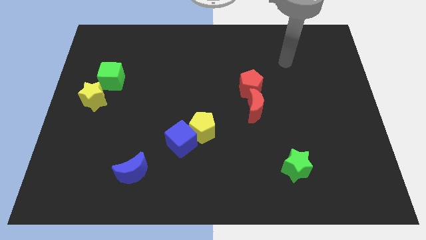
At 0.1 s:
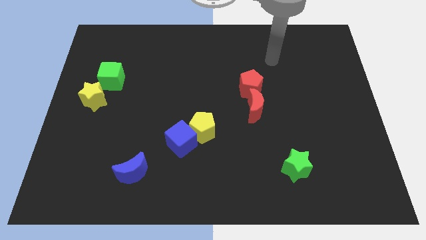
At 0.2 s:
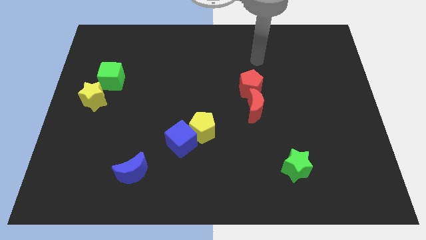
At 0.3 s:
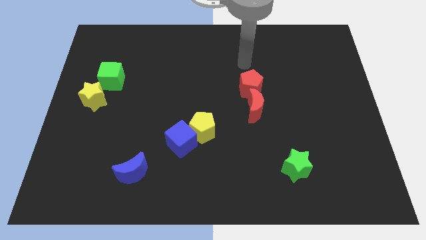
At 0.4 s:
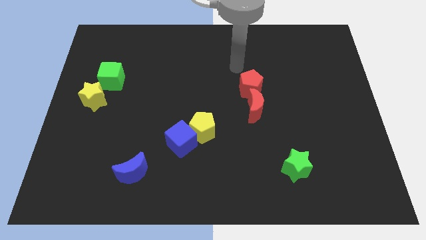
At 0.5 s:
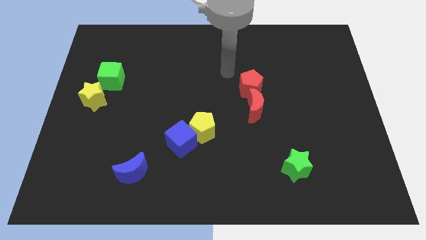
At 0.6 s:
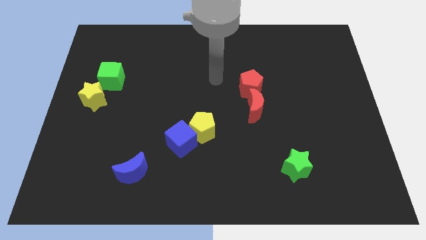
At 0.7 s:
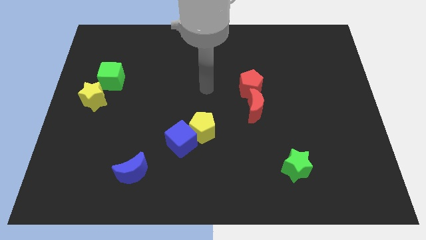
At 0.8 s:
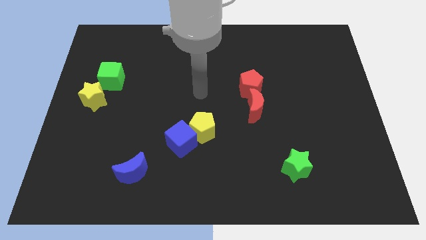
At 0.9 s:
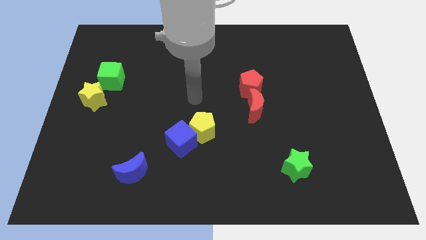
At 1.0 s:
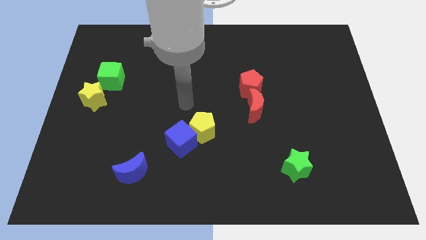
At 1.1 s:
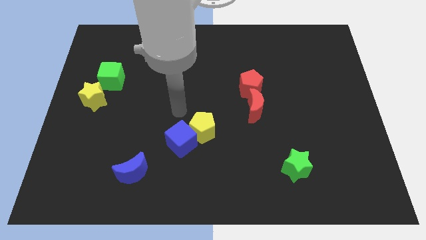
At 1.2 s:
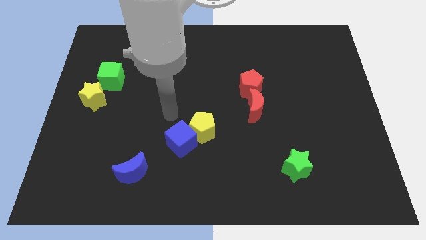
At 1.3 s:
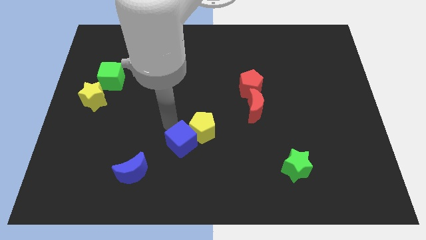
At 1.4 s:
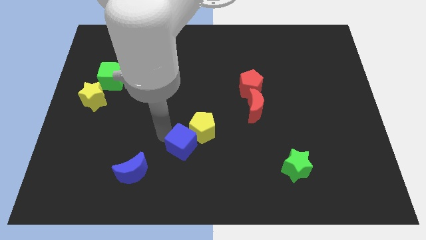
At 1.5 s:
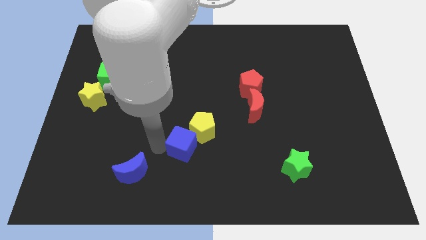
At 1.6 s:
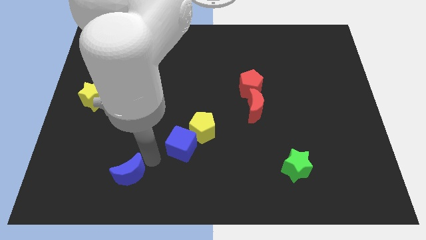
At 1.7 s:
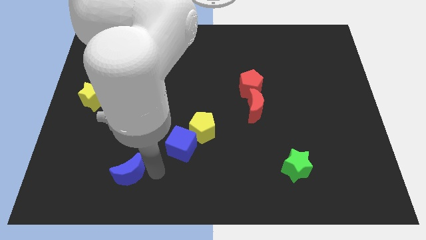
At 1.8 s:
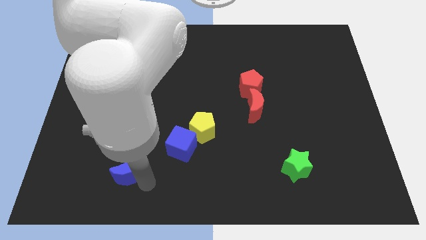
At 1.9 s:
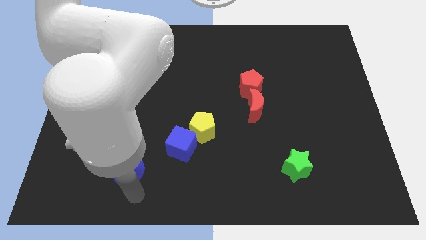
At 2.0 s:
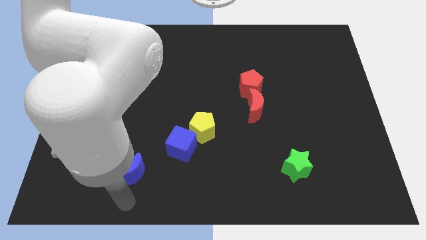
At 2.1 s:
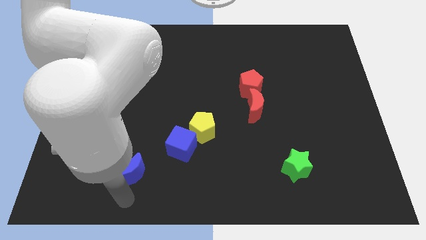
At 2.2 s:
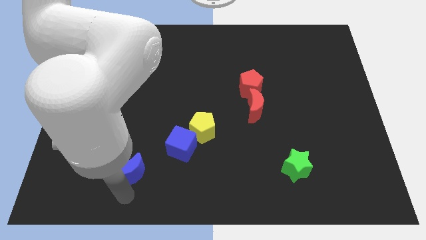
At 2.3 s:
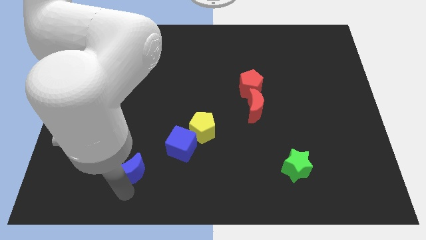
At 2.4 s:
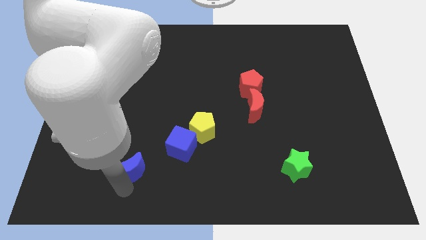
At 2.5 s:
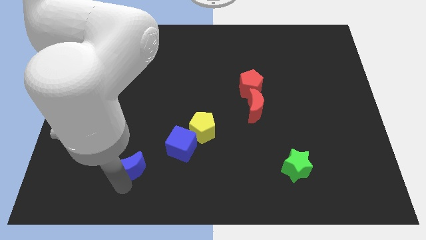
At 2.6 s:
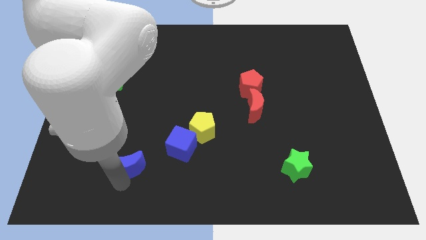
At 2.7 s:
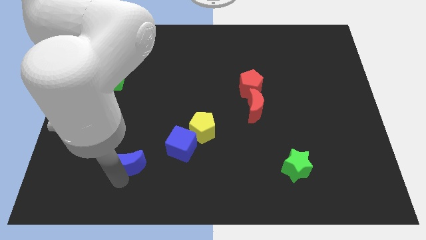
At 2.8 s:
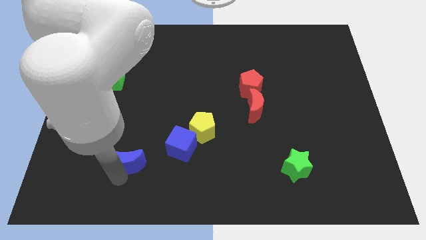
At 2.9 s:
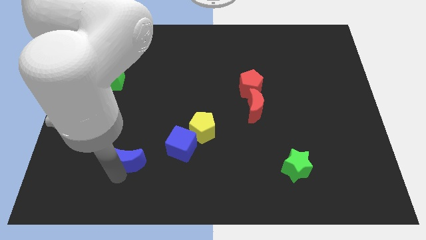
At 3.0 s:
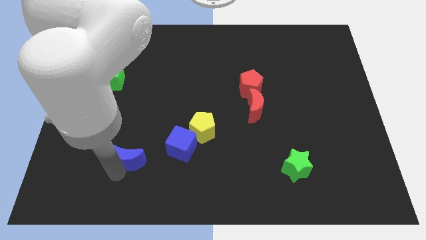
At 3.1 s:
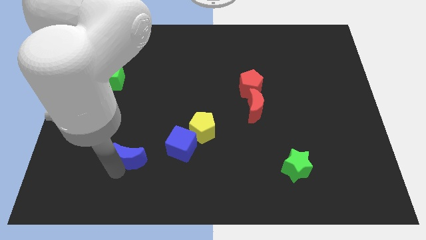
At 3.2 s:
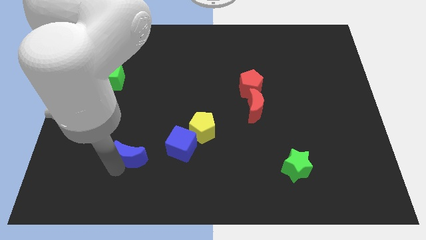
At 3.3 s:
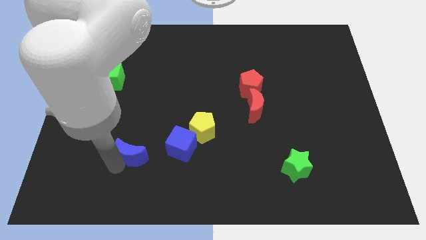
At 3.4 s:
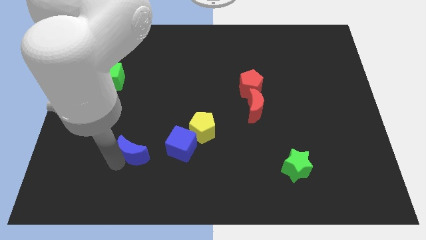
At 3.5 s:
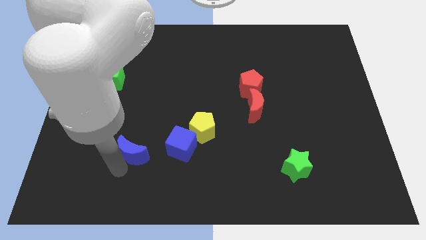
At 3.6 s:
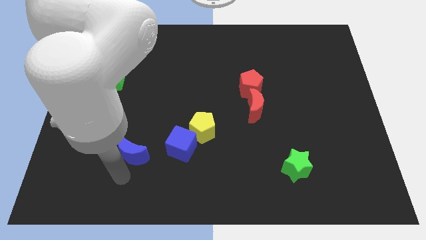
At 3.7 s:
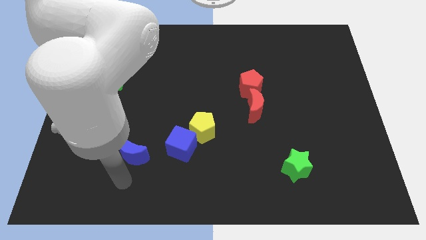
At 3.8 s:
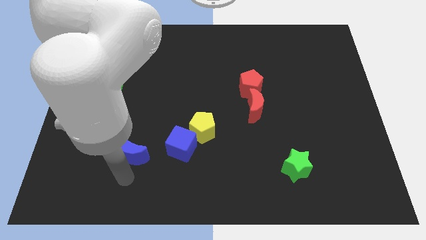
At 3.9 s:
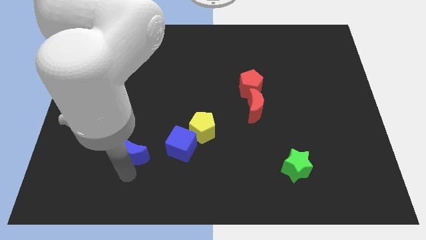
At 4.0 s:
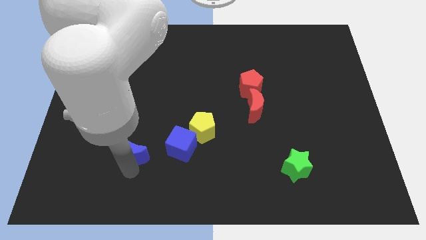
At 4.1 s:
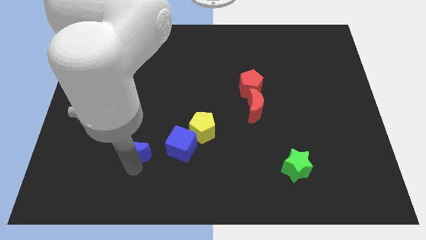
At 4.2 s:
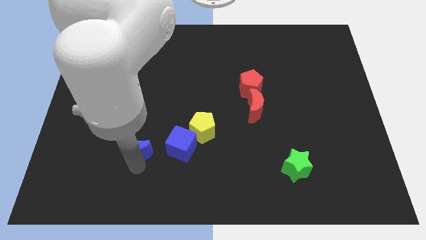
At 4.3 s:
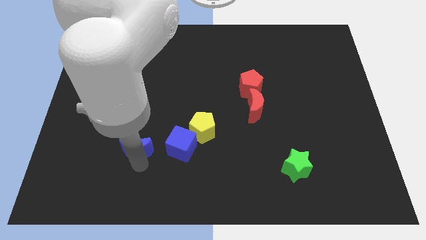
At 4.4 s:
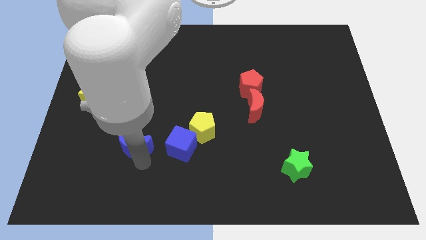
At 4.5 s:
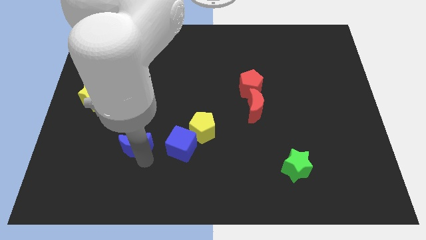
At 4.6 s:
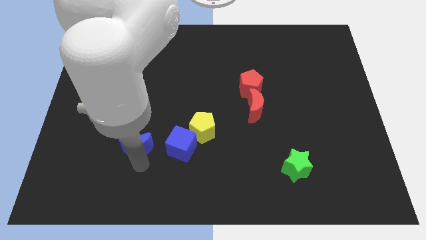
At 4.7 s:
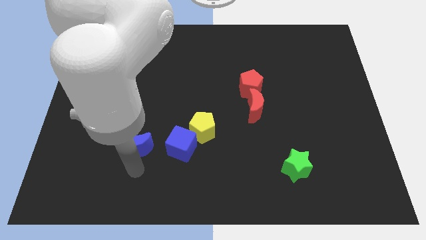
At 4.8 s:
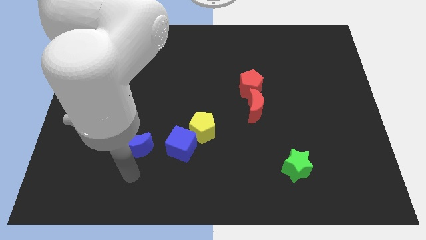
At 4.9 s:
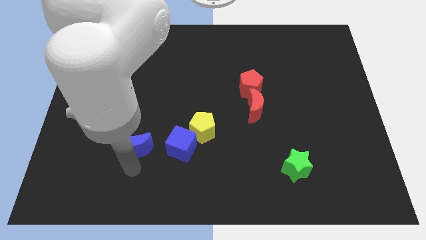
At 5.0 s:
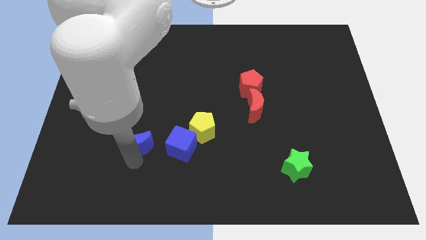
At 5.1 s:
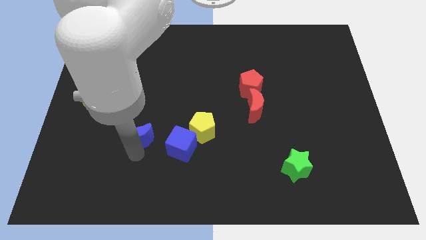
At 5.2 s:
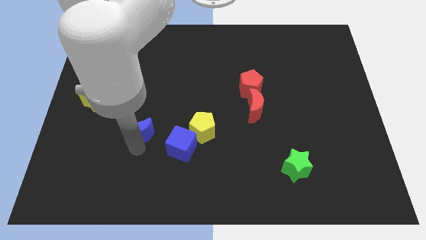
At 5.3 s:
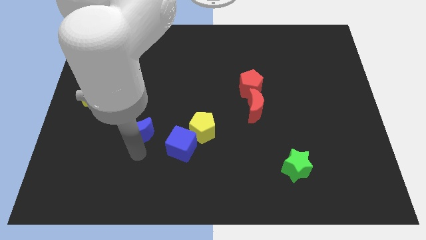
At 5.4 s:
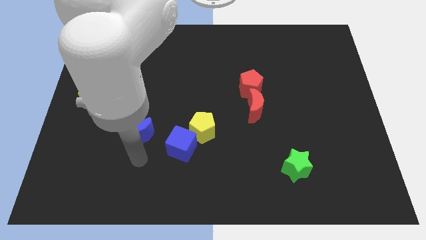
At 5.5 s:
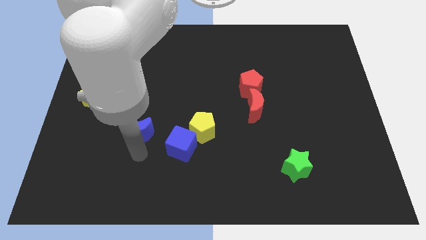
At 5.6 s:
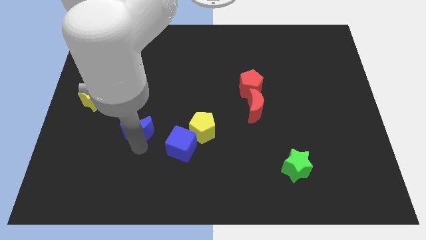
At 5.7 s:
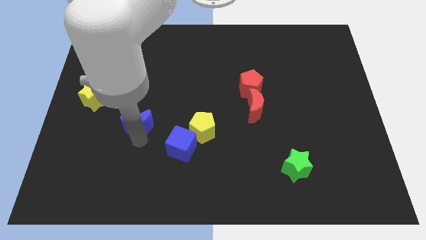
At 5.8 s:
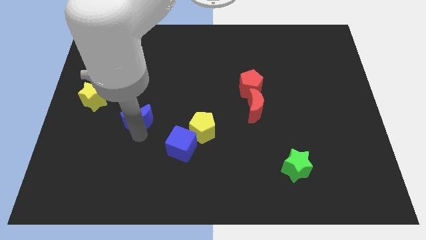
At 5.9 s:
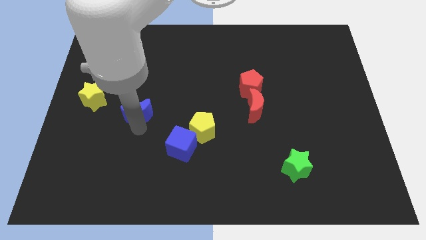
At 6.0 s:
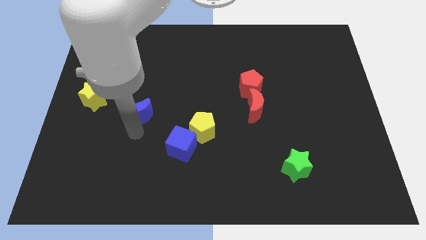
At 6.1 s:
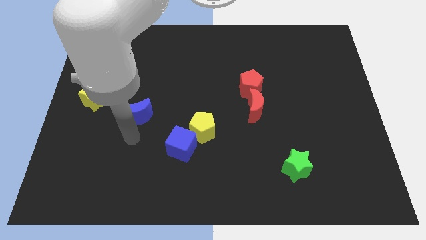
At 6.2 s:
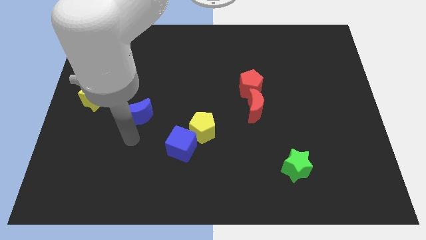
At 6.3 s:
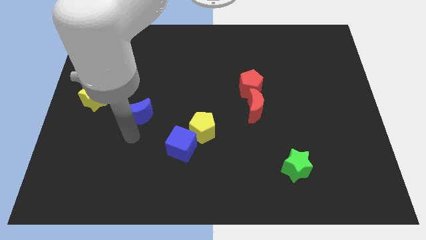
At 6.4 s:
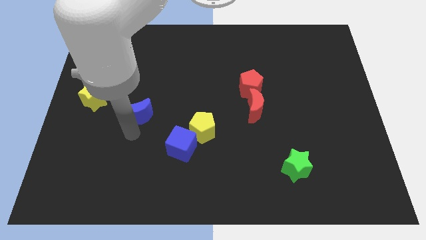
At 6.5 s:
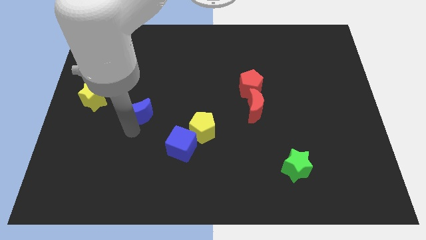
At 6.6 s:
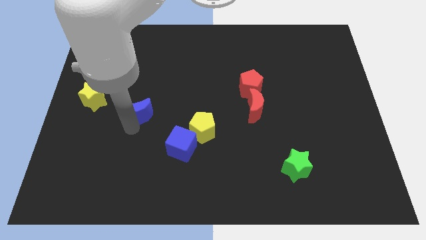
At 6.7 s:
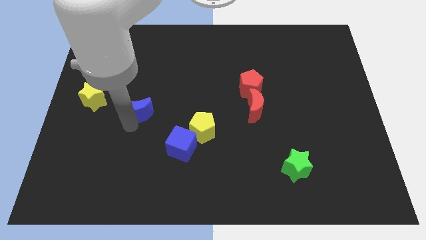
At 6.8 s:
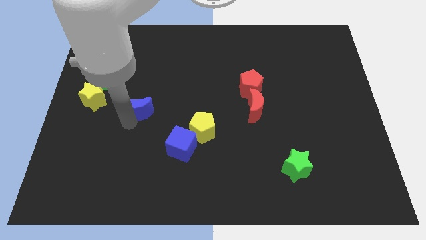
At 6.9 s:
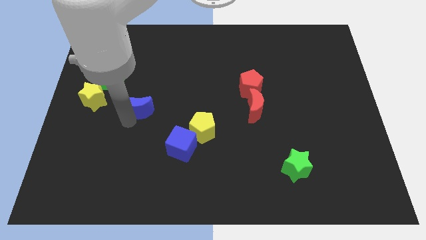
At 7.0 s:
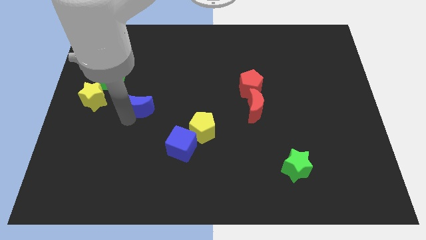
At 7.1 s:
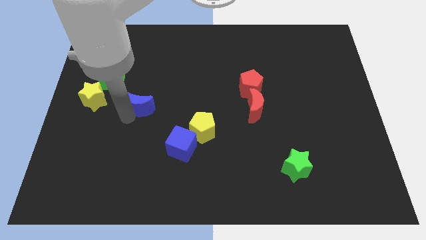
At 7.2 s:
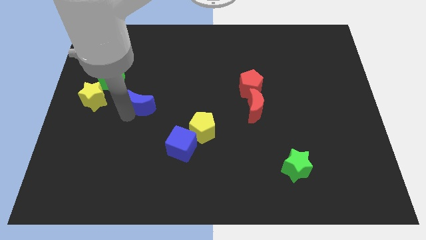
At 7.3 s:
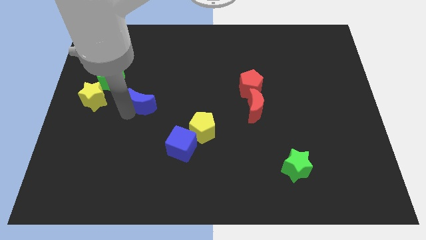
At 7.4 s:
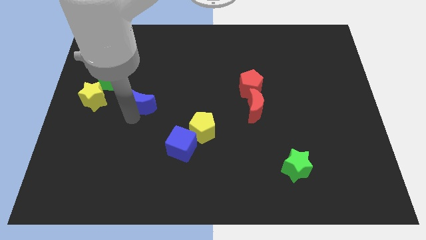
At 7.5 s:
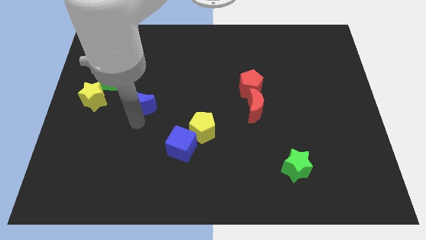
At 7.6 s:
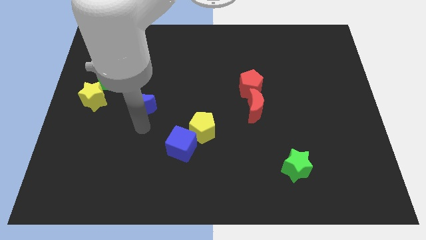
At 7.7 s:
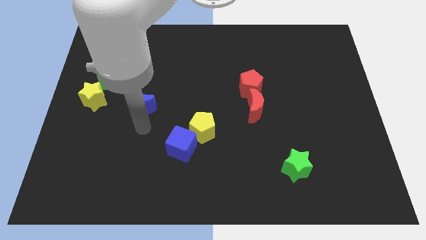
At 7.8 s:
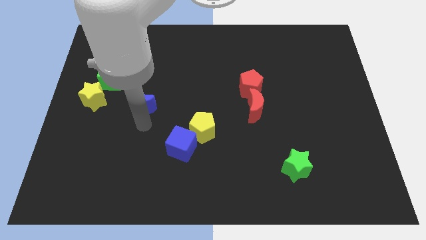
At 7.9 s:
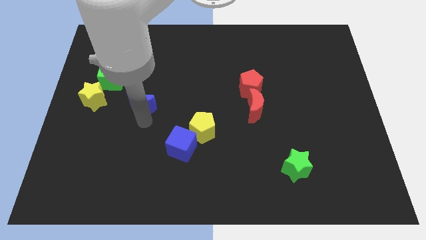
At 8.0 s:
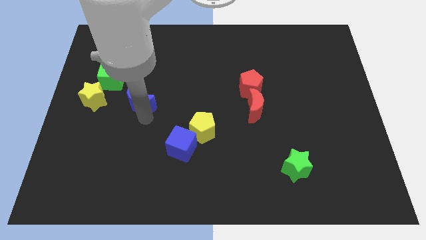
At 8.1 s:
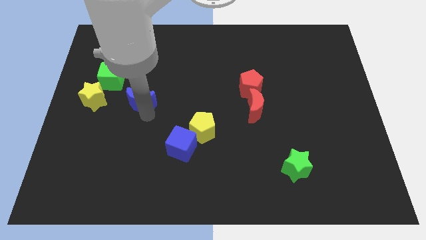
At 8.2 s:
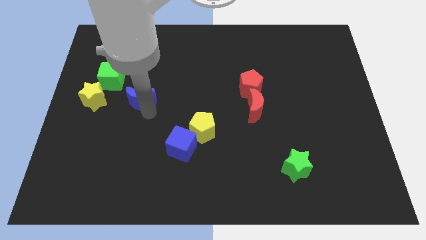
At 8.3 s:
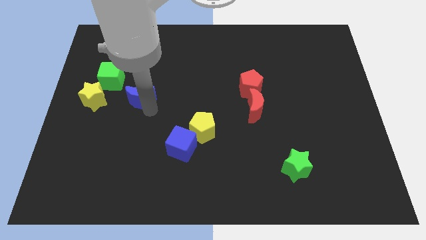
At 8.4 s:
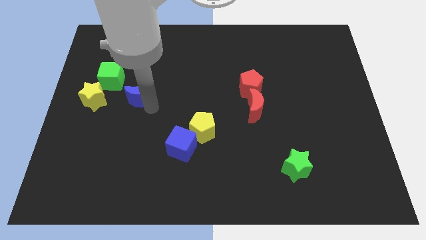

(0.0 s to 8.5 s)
slide the blue moon upwards
